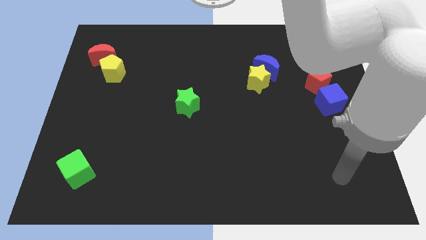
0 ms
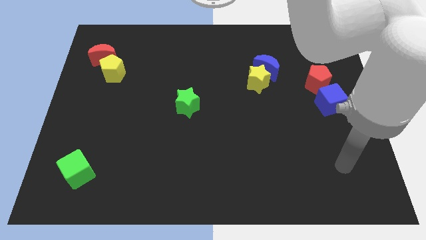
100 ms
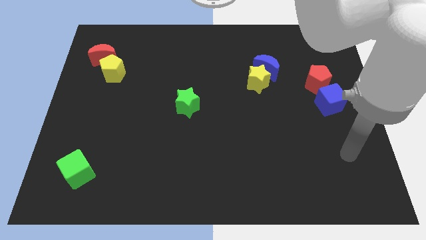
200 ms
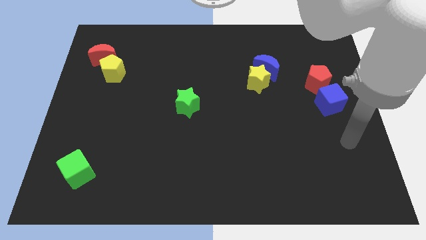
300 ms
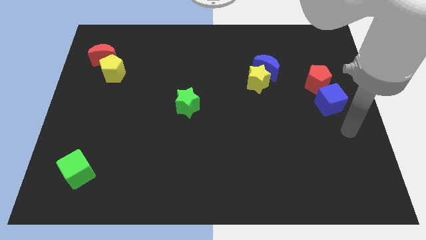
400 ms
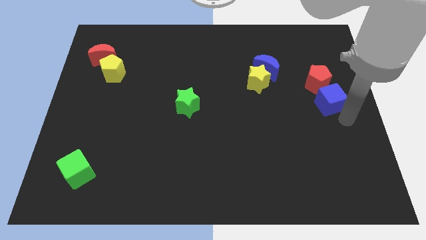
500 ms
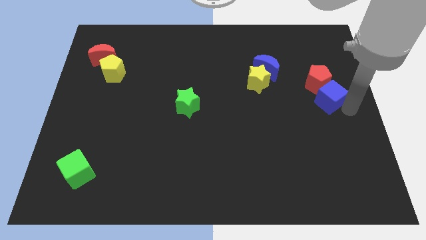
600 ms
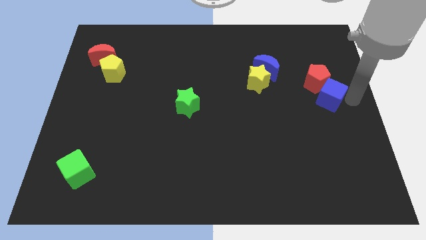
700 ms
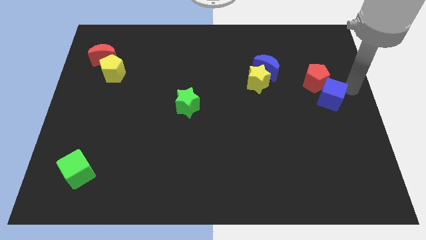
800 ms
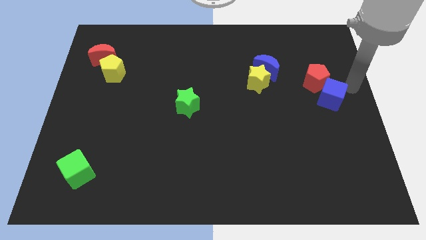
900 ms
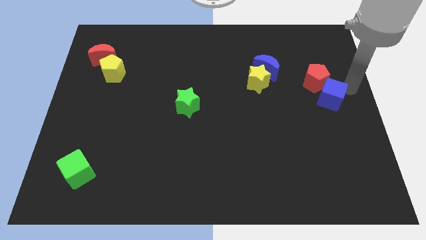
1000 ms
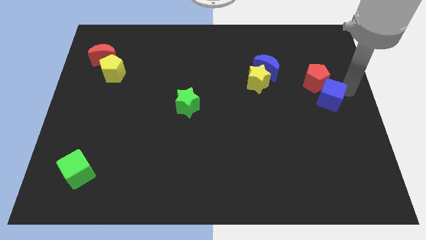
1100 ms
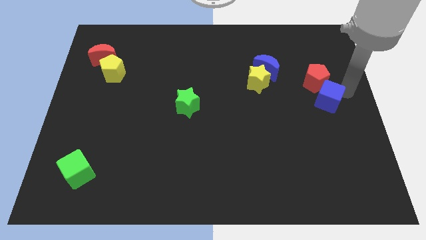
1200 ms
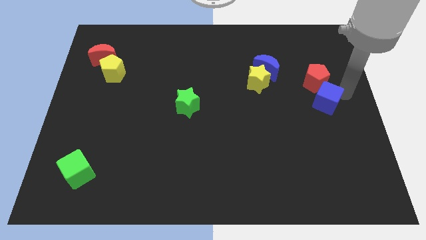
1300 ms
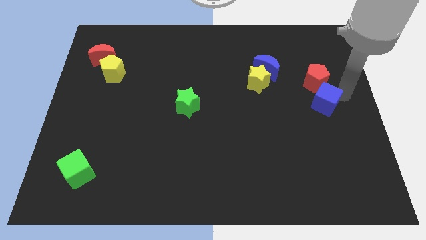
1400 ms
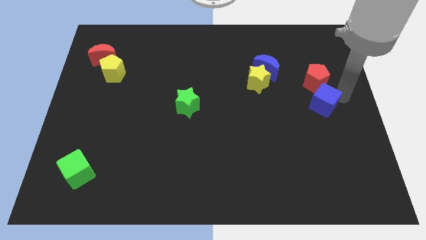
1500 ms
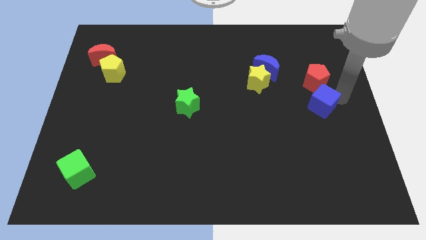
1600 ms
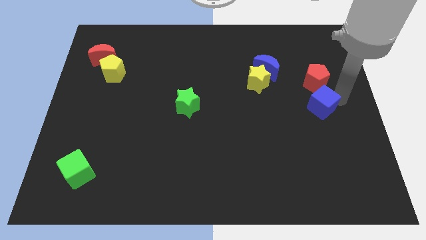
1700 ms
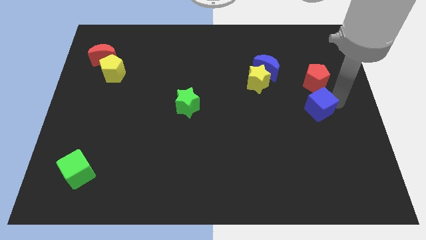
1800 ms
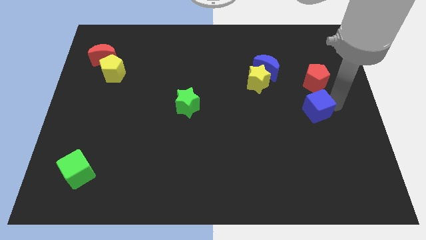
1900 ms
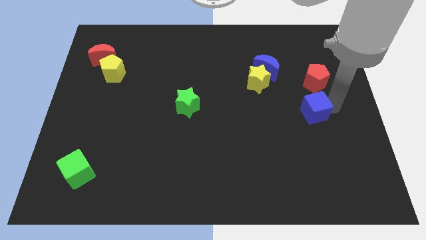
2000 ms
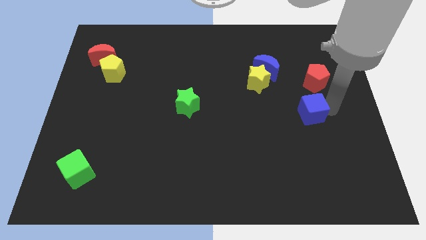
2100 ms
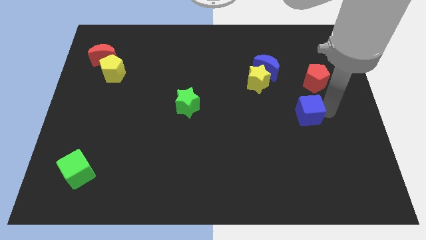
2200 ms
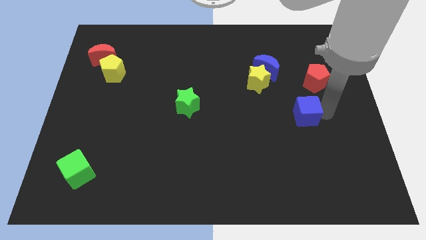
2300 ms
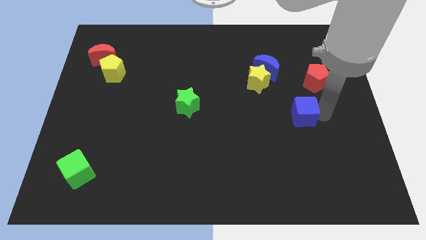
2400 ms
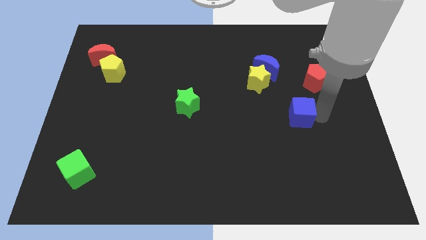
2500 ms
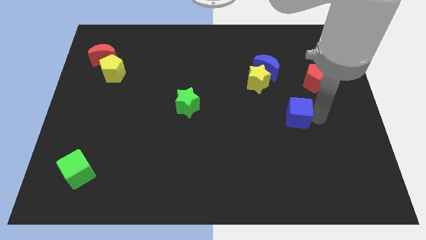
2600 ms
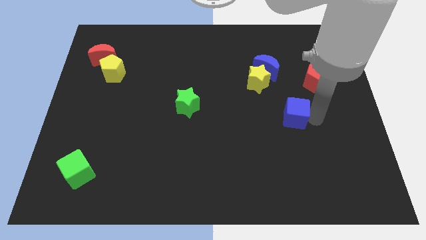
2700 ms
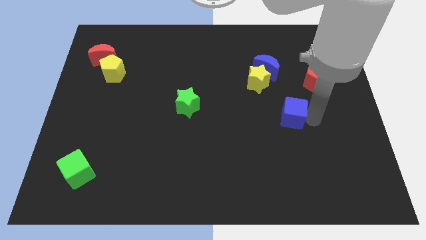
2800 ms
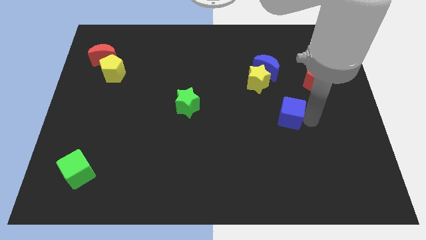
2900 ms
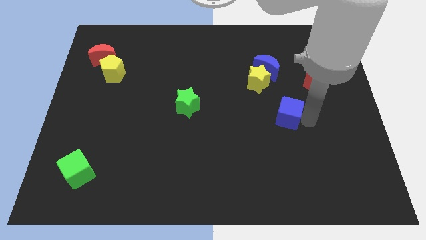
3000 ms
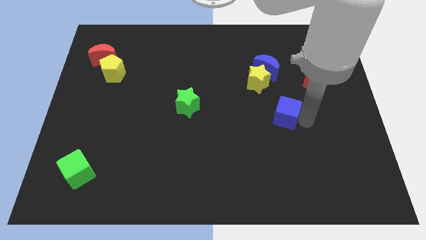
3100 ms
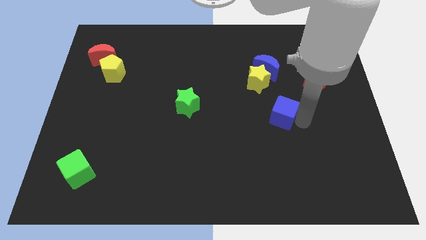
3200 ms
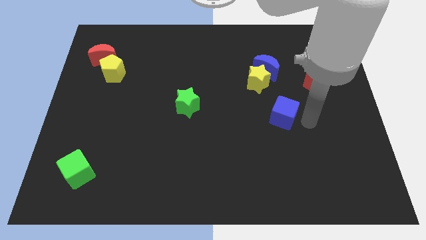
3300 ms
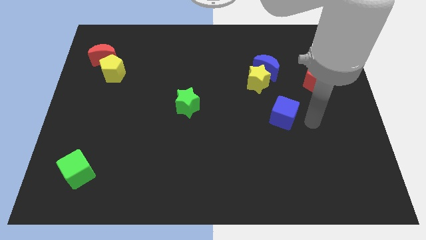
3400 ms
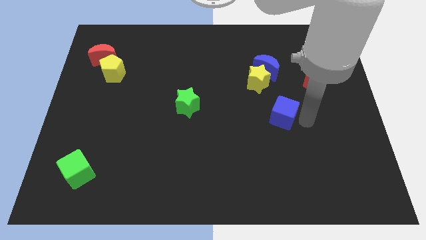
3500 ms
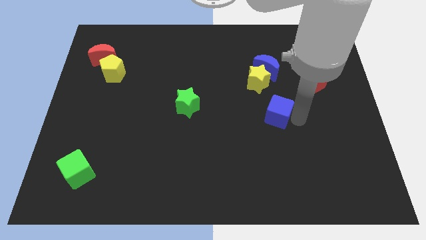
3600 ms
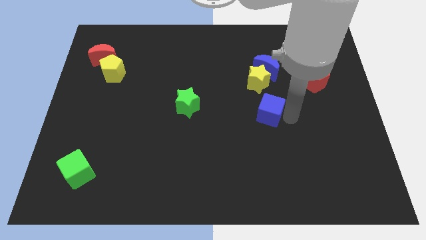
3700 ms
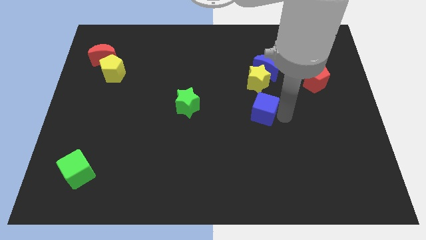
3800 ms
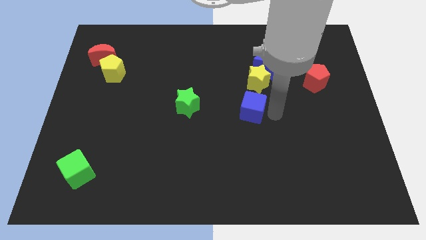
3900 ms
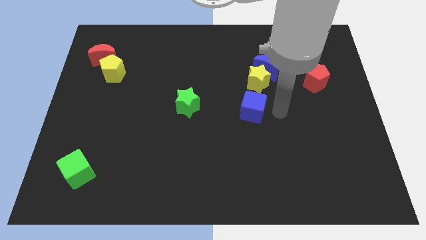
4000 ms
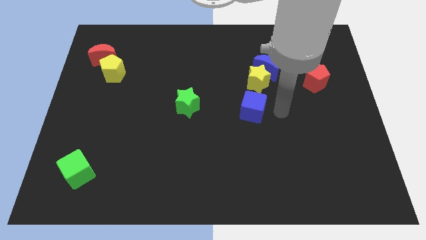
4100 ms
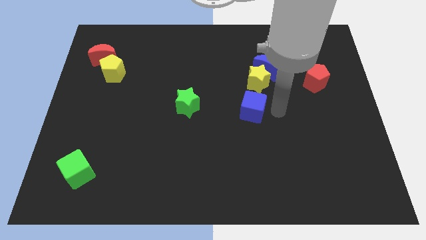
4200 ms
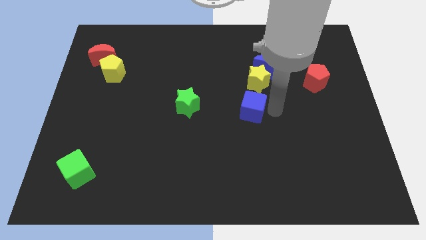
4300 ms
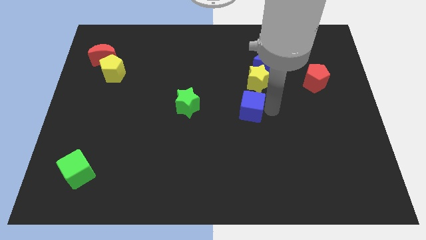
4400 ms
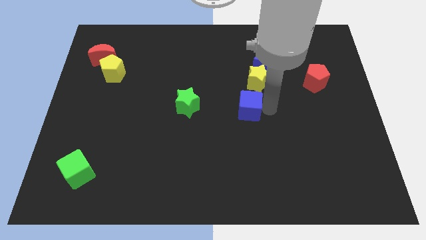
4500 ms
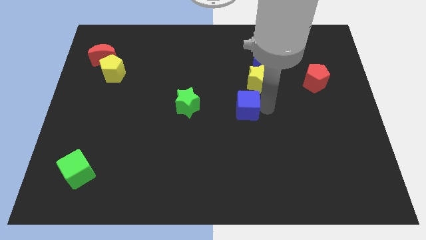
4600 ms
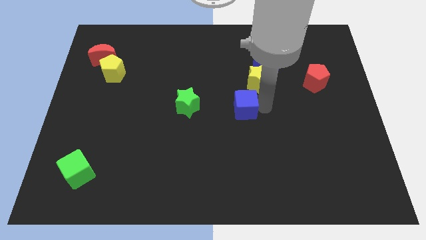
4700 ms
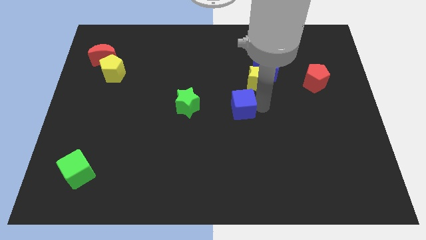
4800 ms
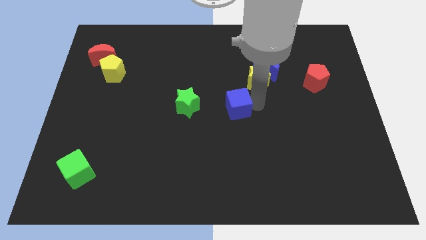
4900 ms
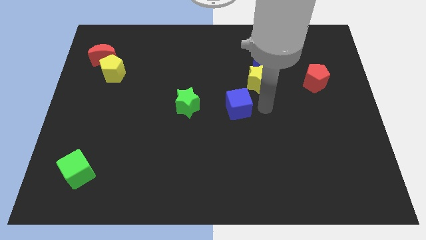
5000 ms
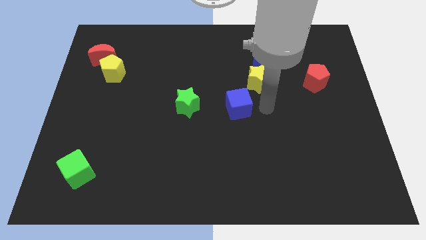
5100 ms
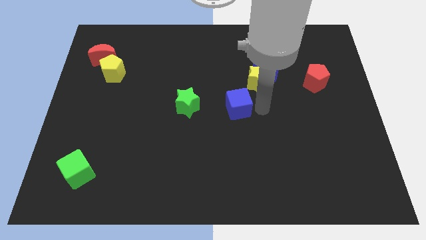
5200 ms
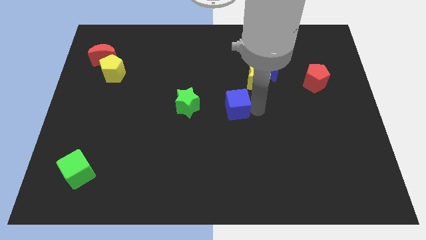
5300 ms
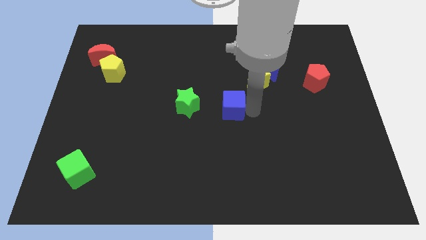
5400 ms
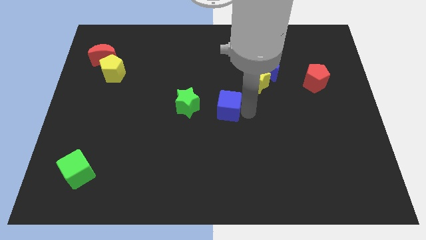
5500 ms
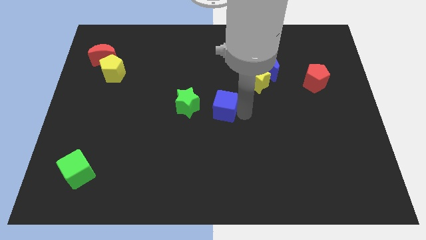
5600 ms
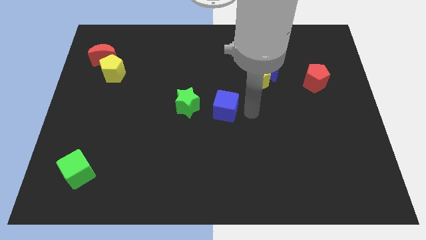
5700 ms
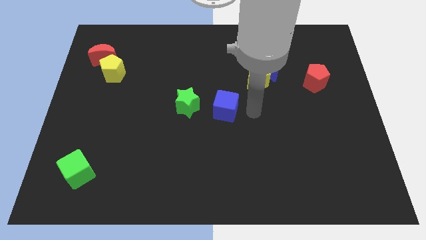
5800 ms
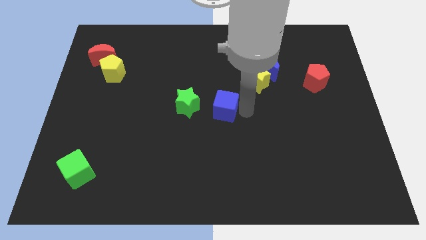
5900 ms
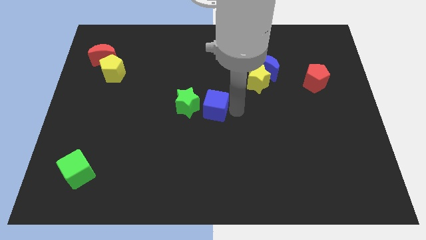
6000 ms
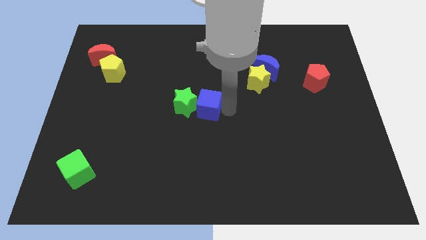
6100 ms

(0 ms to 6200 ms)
push the blue cube close to the green star

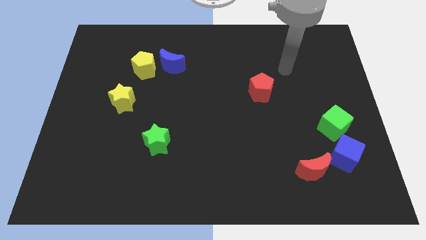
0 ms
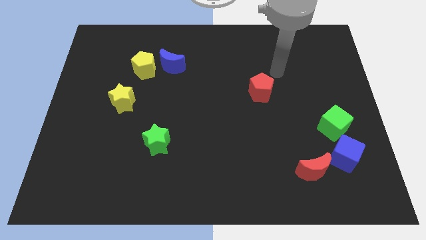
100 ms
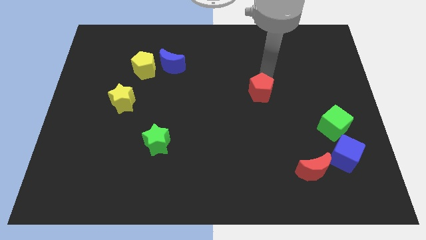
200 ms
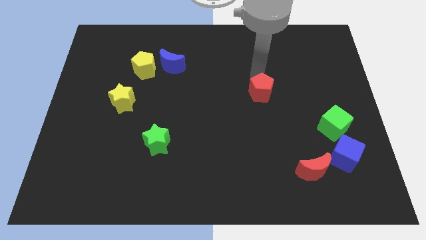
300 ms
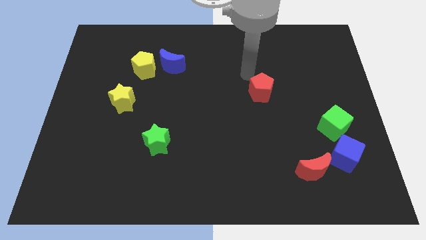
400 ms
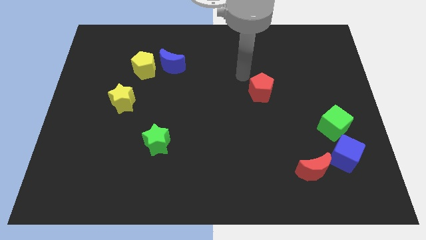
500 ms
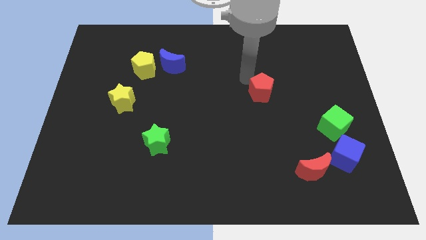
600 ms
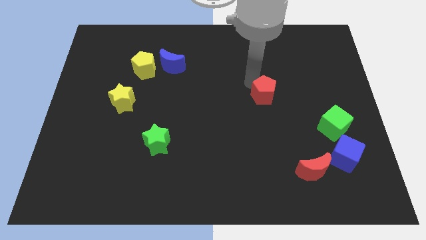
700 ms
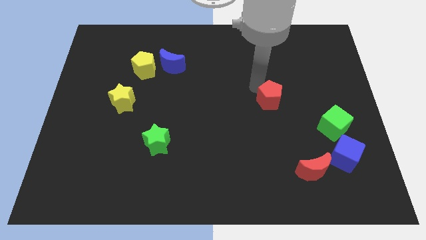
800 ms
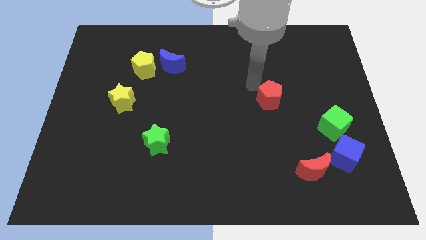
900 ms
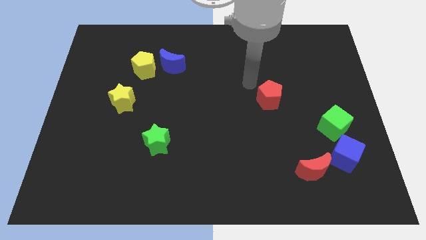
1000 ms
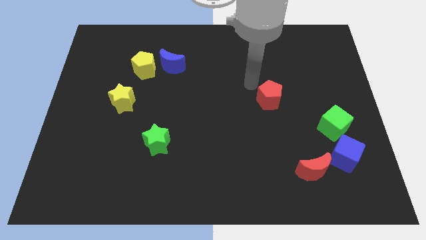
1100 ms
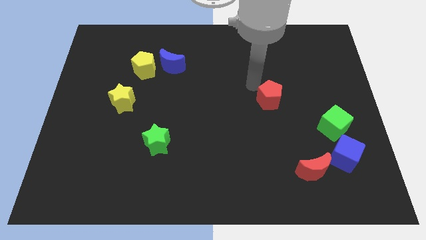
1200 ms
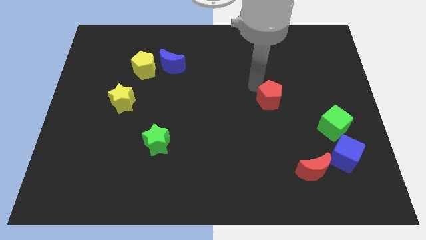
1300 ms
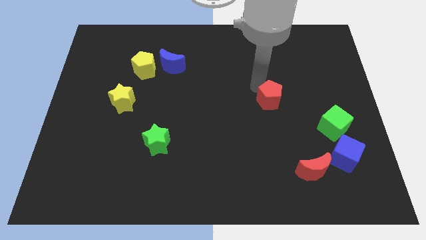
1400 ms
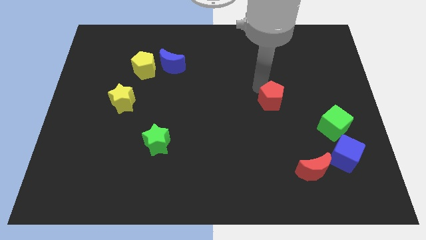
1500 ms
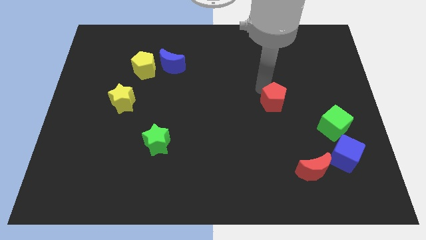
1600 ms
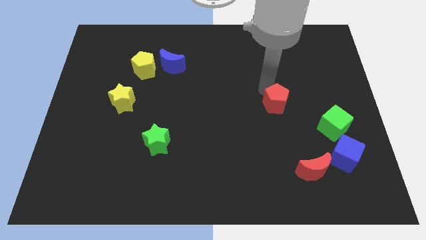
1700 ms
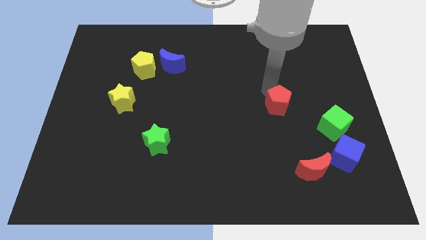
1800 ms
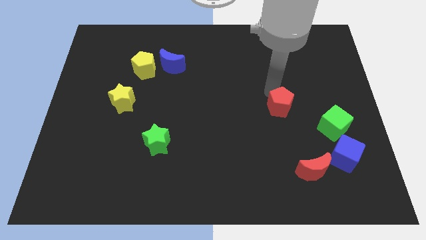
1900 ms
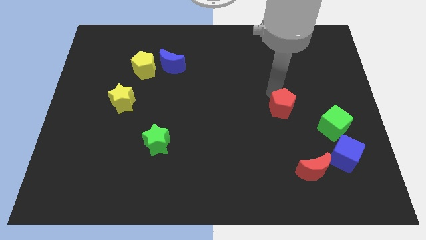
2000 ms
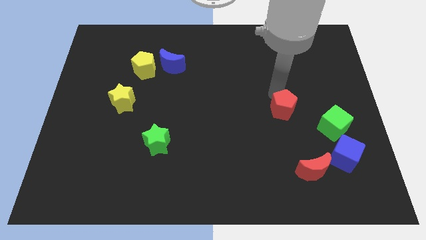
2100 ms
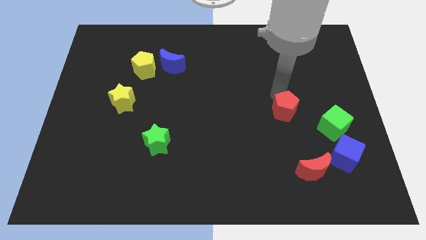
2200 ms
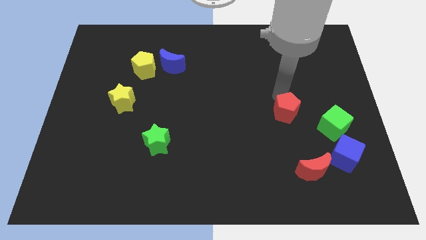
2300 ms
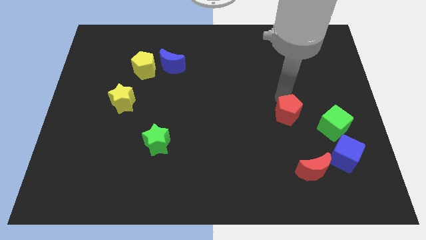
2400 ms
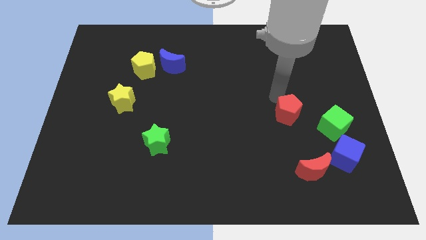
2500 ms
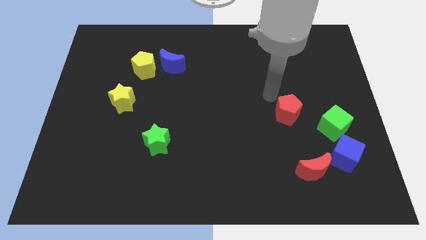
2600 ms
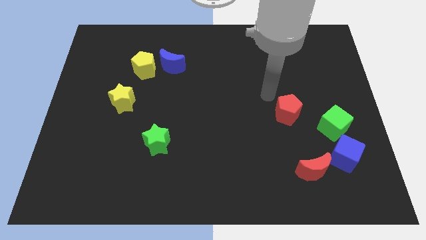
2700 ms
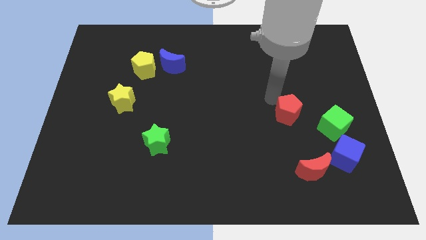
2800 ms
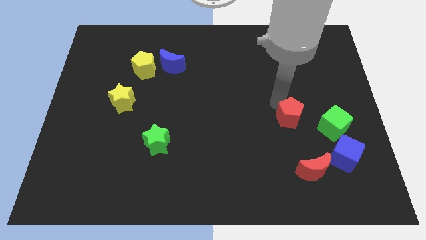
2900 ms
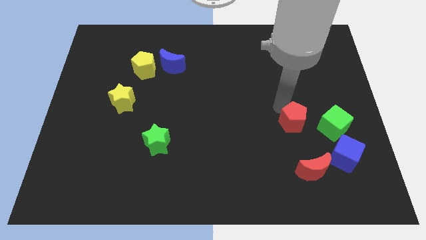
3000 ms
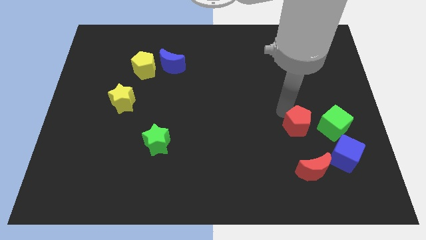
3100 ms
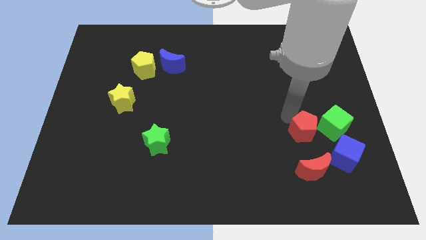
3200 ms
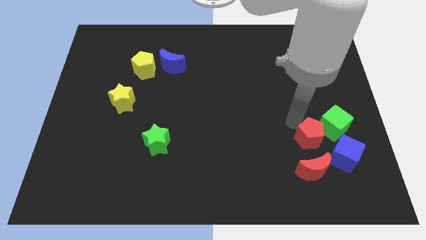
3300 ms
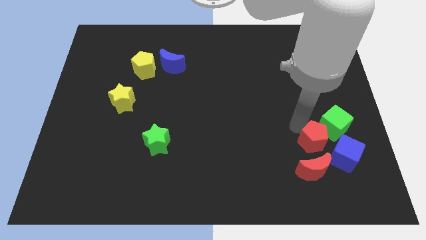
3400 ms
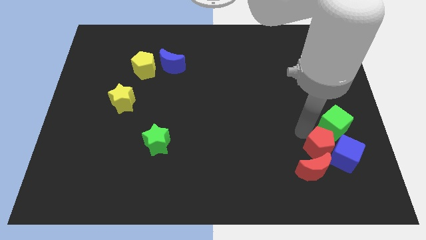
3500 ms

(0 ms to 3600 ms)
push the red pentagon towards the blue cube
